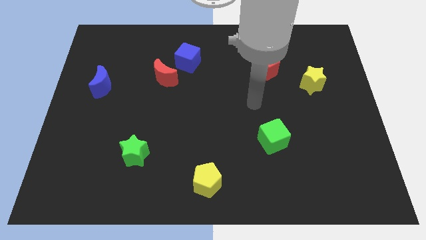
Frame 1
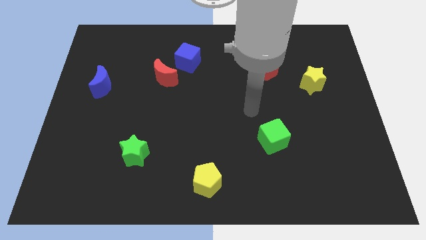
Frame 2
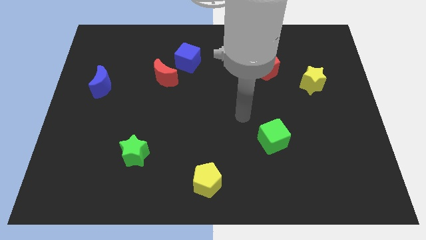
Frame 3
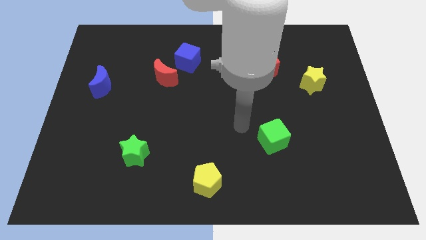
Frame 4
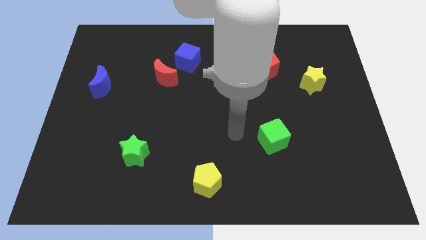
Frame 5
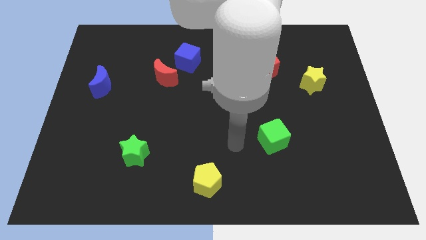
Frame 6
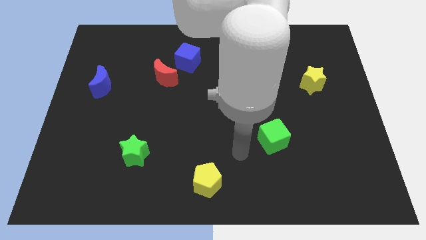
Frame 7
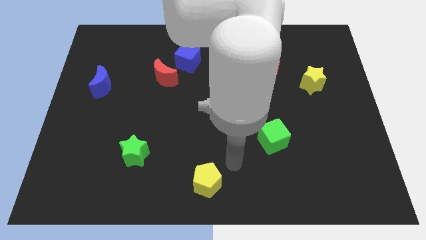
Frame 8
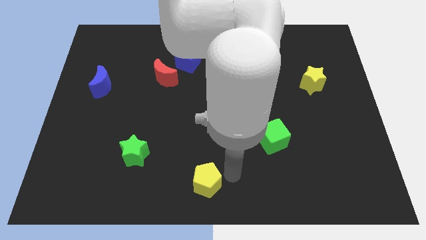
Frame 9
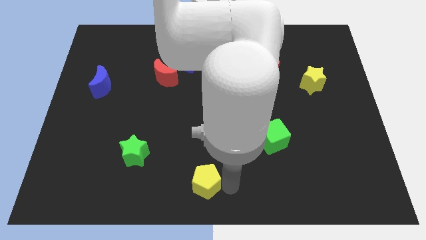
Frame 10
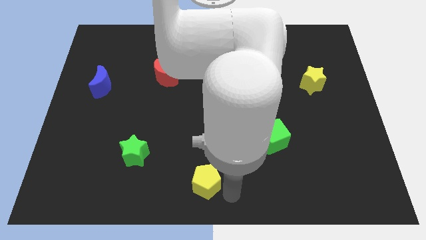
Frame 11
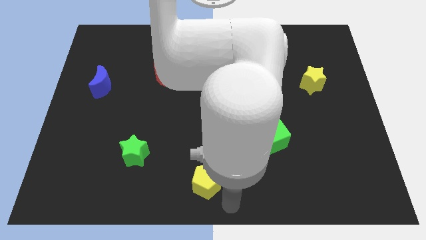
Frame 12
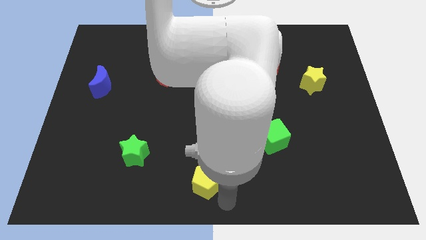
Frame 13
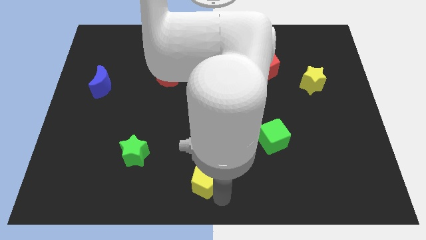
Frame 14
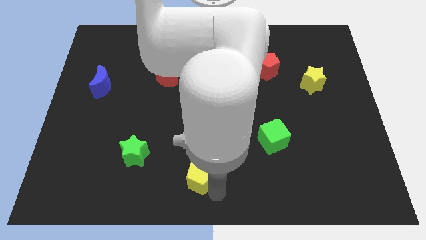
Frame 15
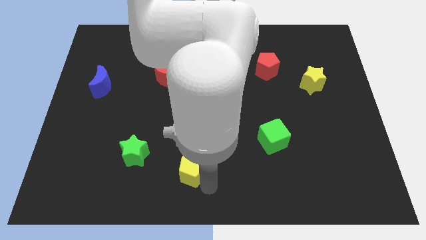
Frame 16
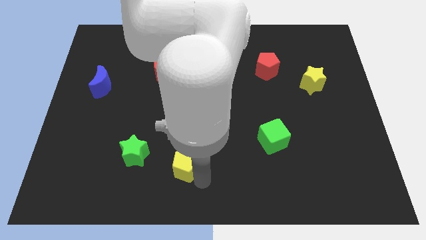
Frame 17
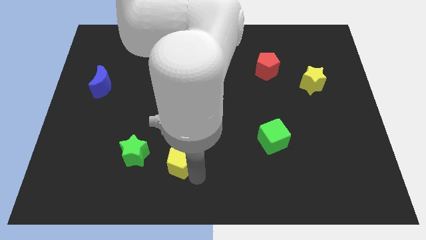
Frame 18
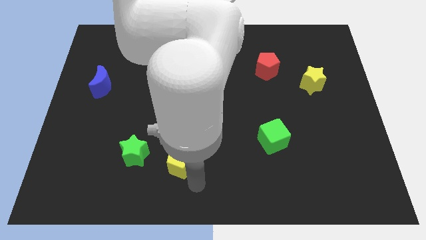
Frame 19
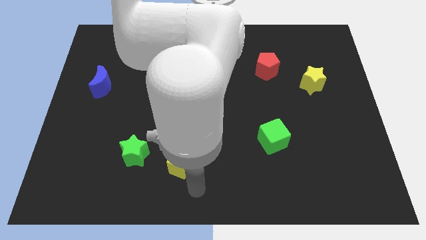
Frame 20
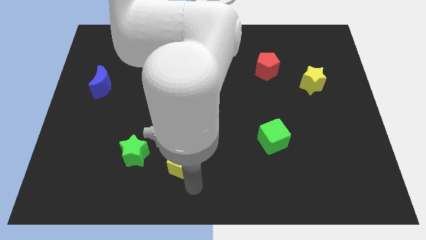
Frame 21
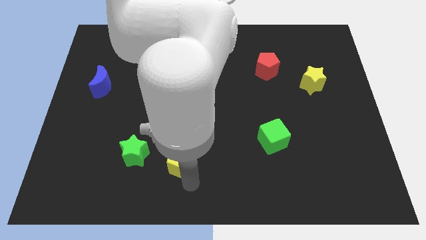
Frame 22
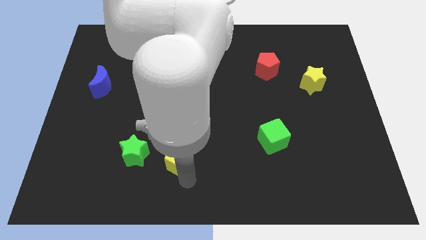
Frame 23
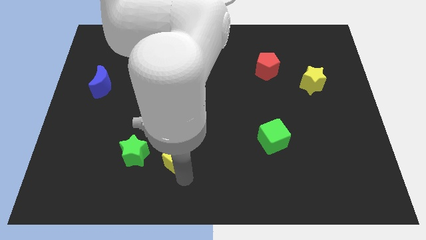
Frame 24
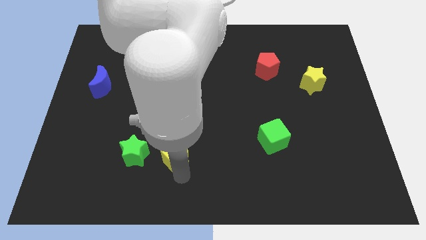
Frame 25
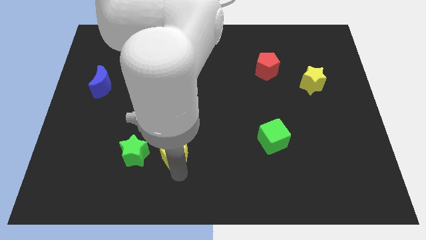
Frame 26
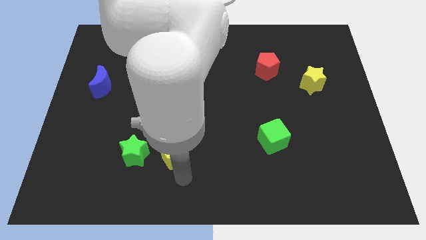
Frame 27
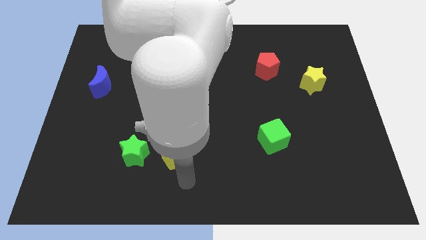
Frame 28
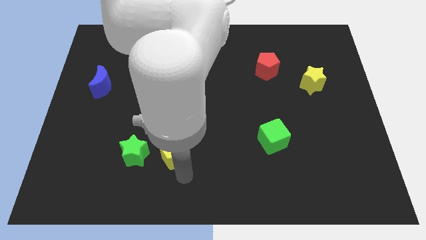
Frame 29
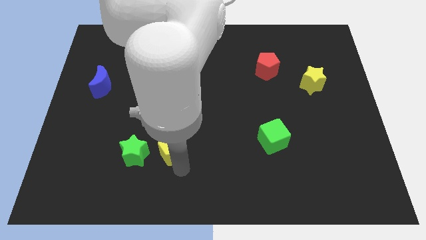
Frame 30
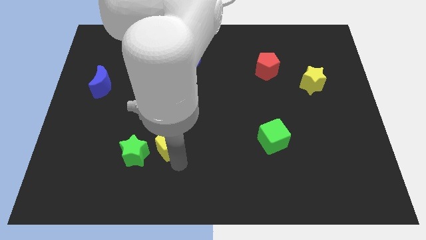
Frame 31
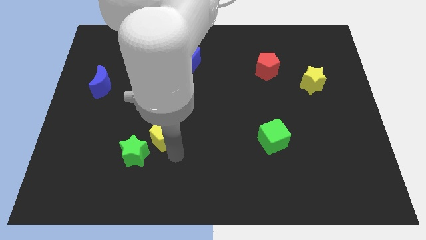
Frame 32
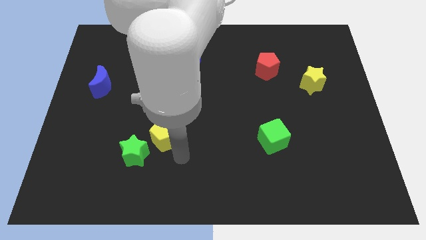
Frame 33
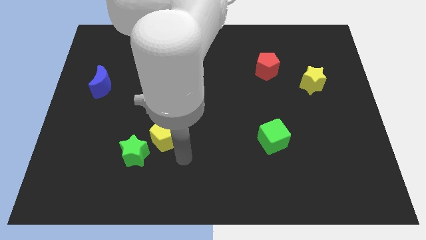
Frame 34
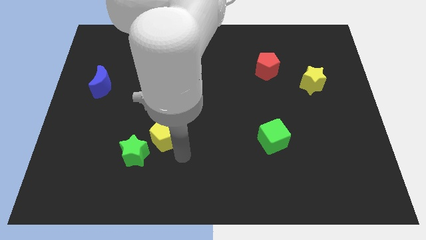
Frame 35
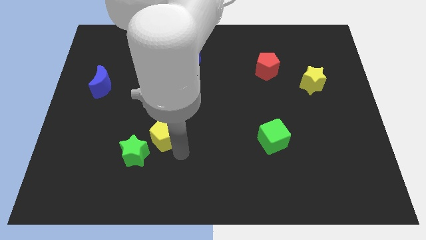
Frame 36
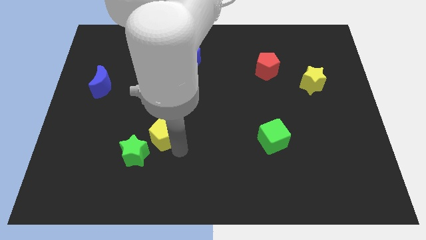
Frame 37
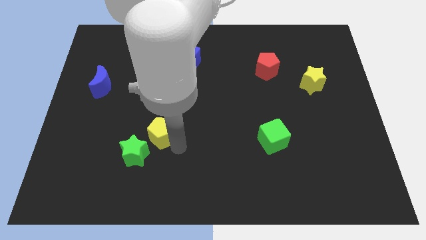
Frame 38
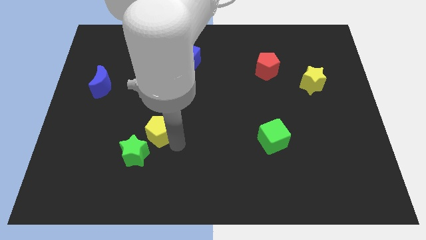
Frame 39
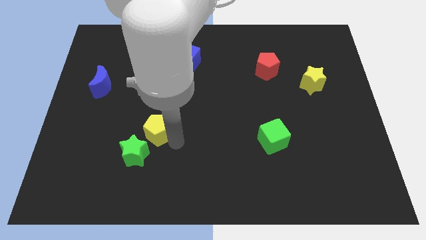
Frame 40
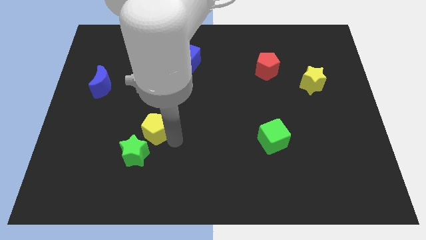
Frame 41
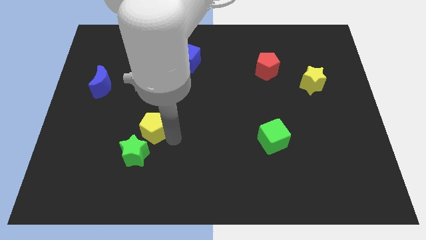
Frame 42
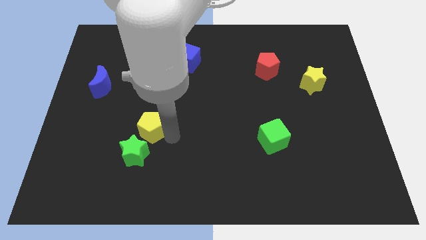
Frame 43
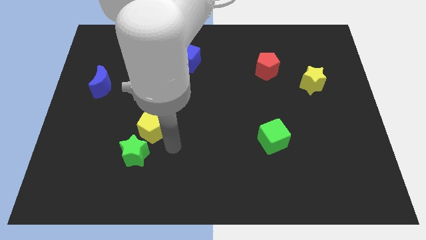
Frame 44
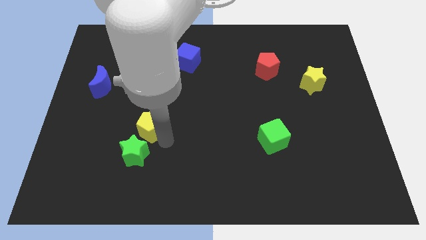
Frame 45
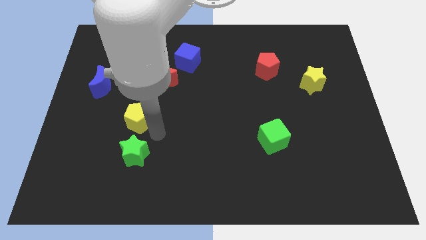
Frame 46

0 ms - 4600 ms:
slide the yellow pentagon diagonally up and left

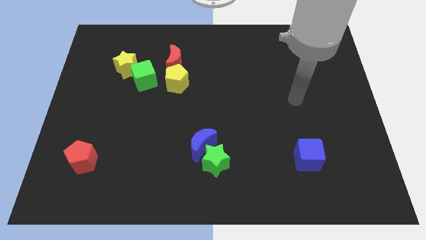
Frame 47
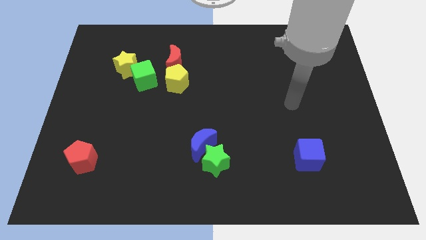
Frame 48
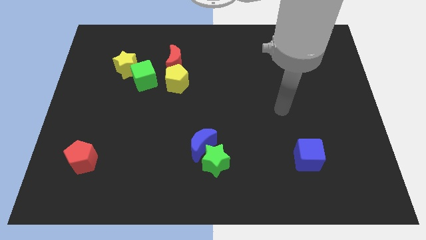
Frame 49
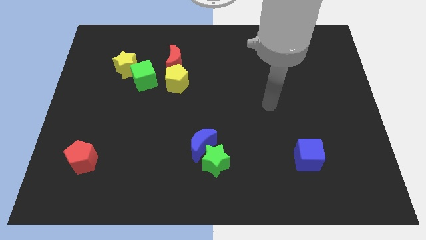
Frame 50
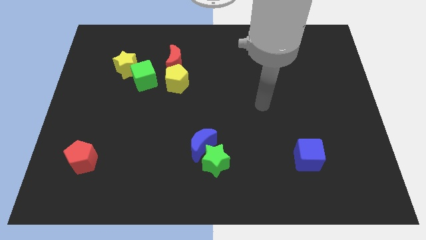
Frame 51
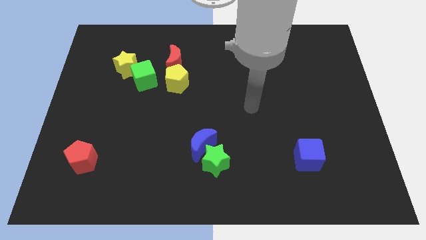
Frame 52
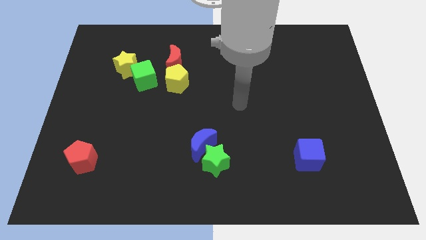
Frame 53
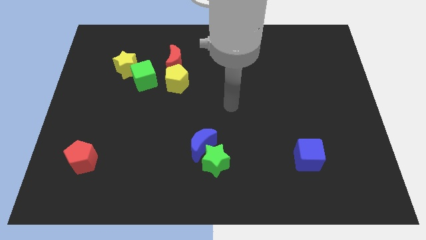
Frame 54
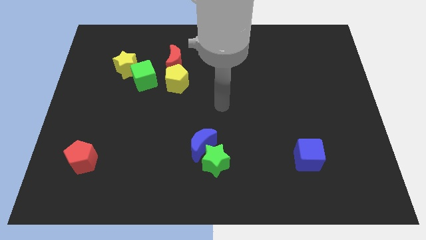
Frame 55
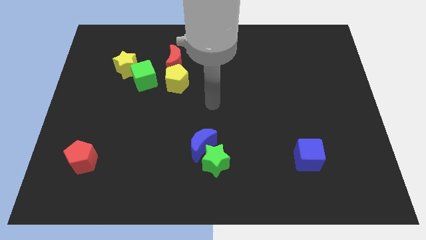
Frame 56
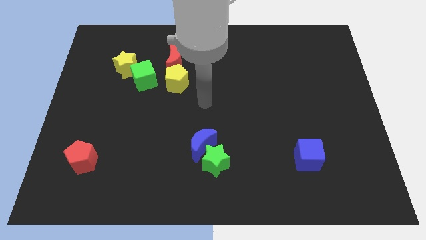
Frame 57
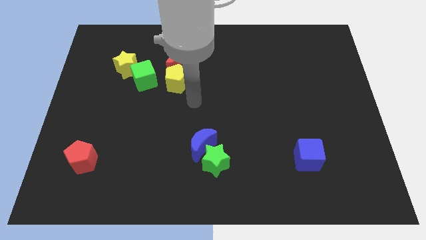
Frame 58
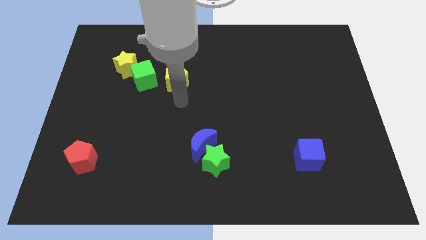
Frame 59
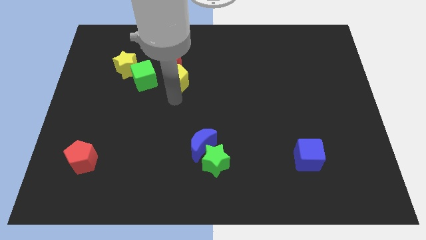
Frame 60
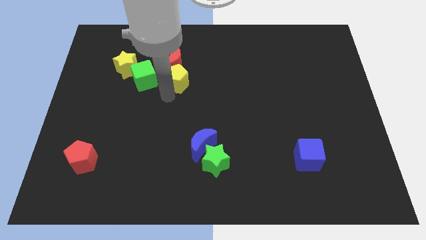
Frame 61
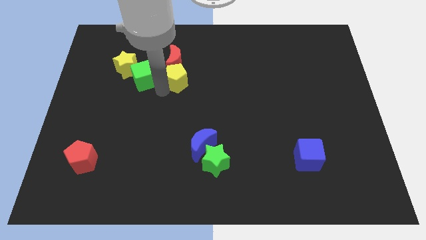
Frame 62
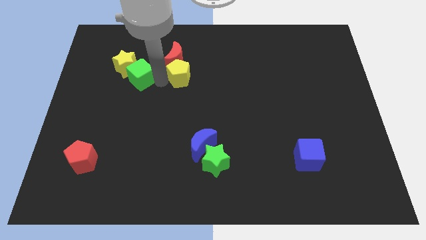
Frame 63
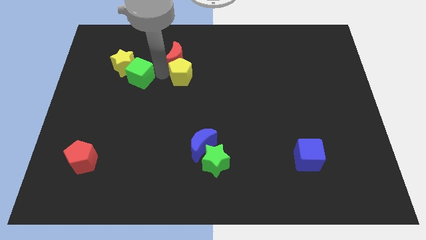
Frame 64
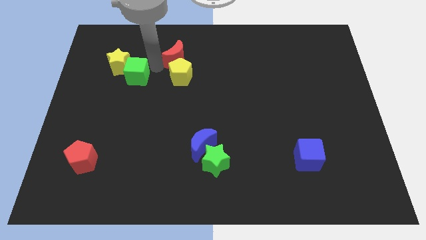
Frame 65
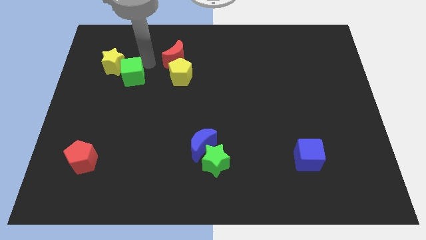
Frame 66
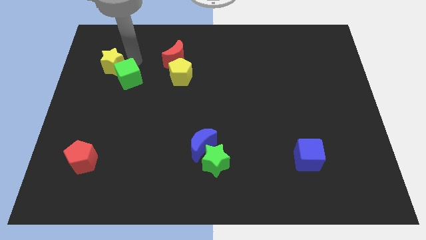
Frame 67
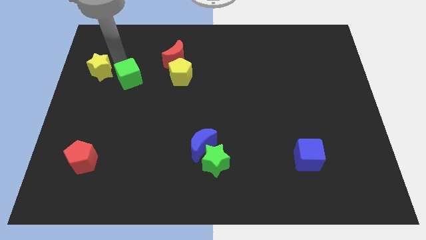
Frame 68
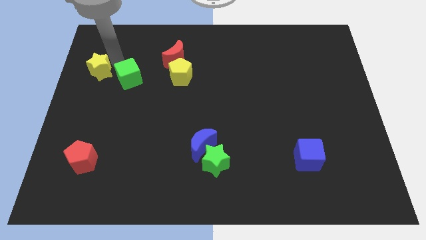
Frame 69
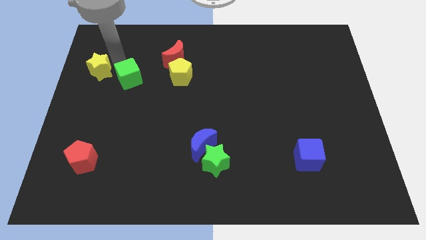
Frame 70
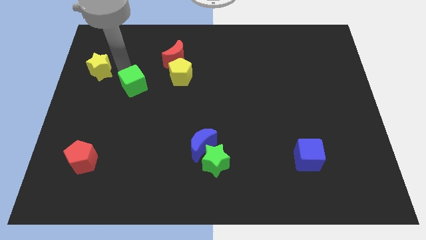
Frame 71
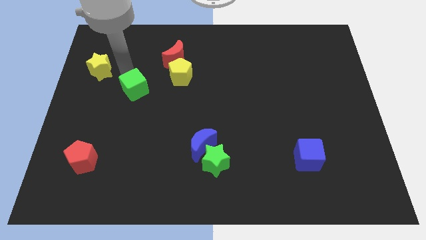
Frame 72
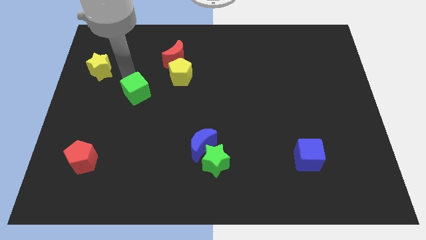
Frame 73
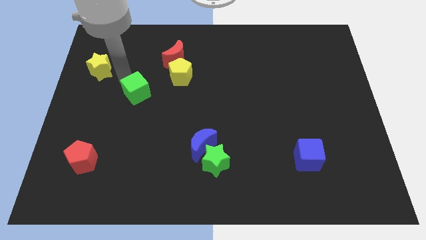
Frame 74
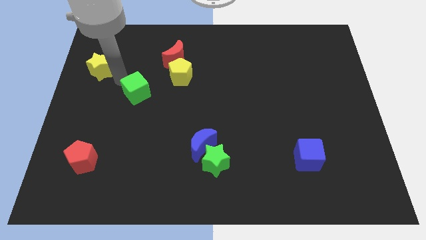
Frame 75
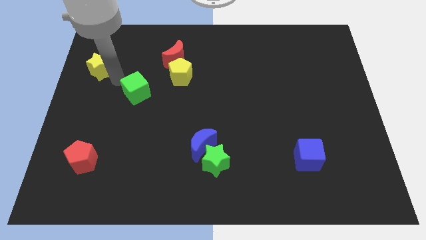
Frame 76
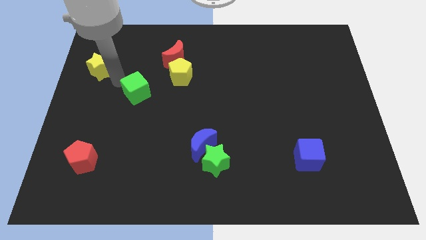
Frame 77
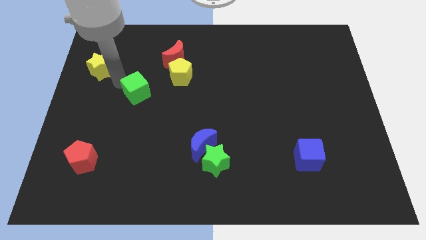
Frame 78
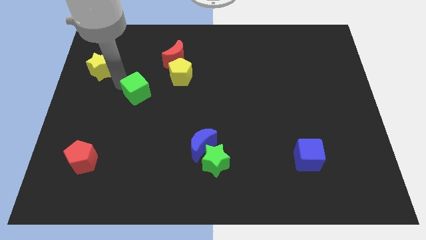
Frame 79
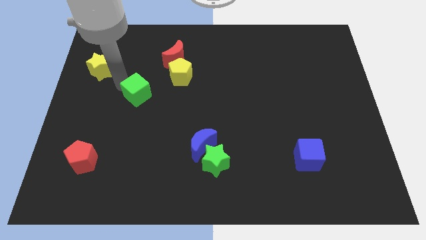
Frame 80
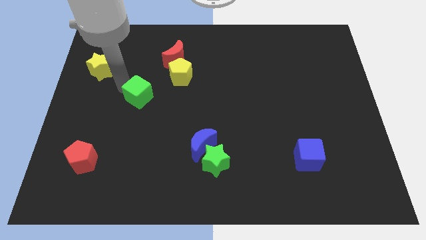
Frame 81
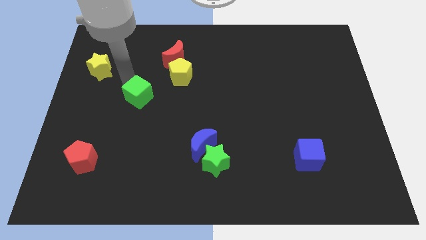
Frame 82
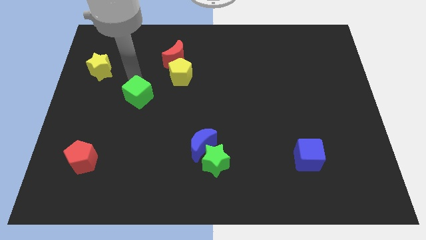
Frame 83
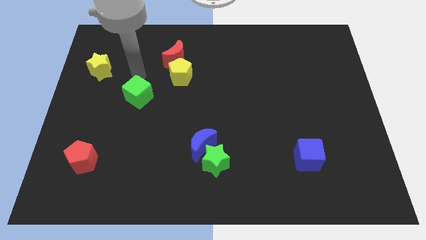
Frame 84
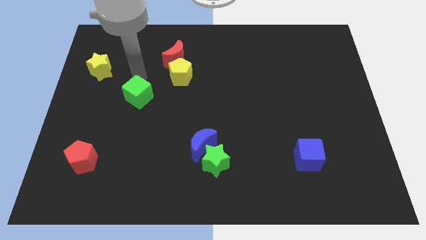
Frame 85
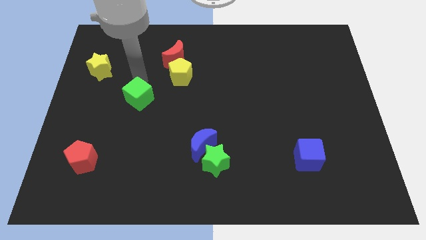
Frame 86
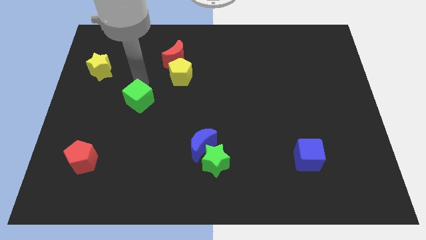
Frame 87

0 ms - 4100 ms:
slide the green cube downwards a little
